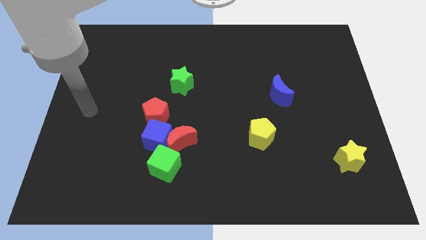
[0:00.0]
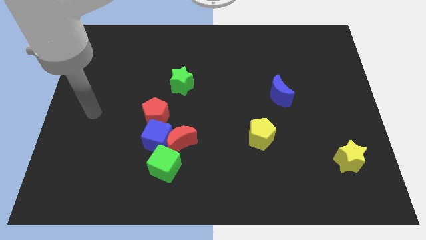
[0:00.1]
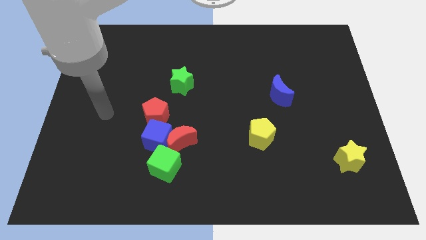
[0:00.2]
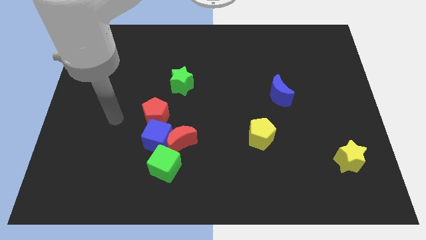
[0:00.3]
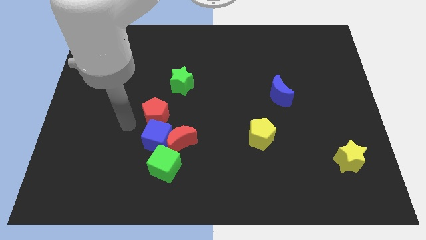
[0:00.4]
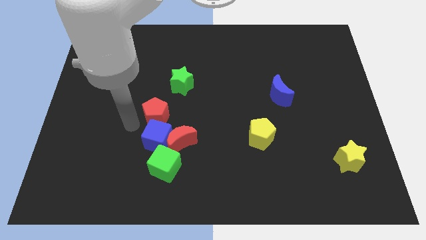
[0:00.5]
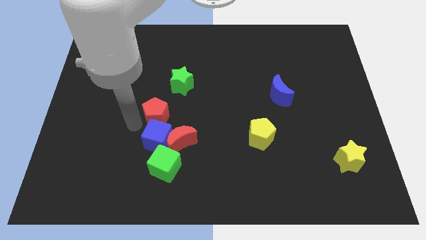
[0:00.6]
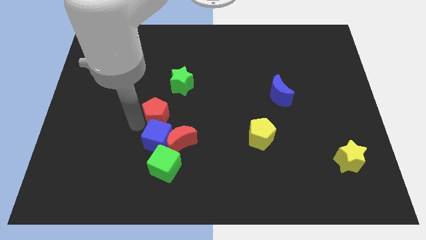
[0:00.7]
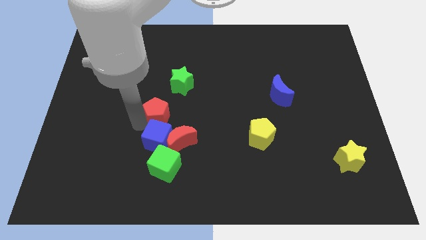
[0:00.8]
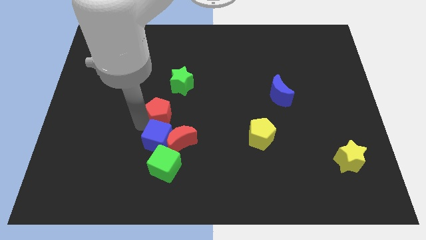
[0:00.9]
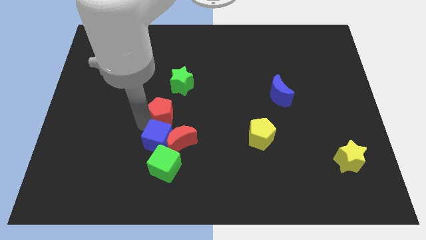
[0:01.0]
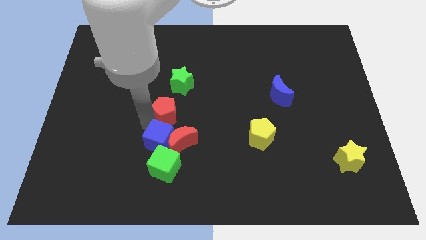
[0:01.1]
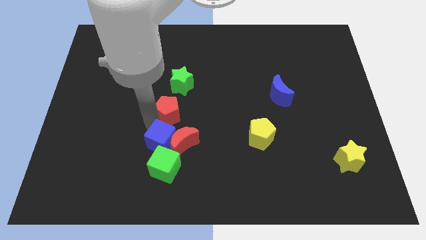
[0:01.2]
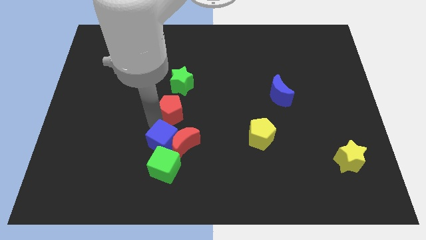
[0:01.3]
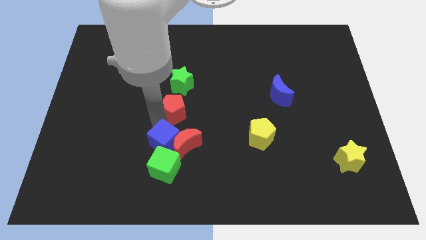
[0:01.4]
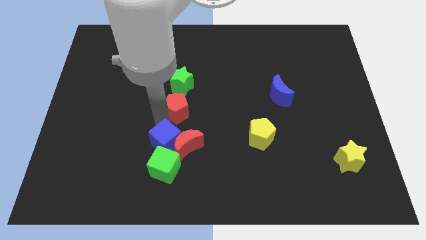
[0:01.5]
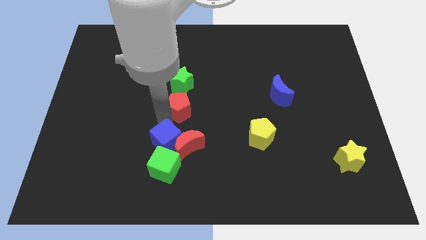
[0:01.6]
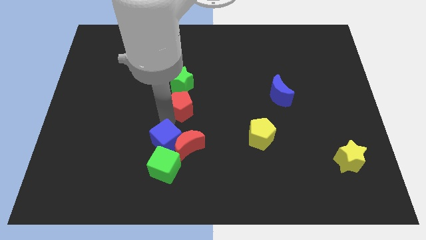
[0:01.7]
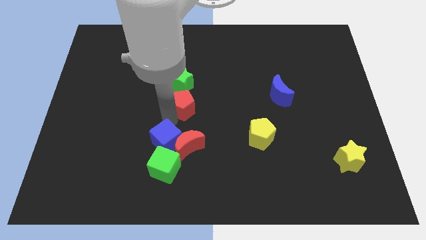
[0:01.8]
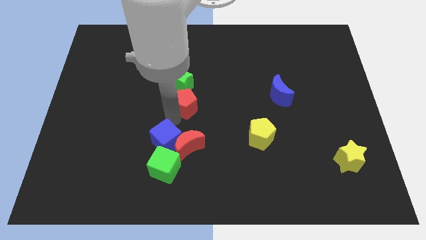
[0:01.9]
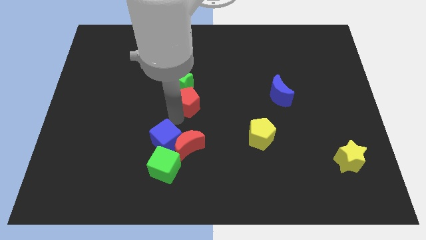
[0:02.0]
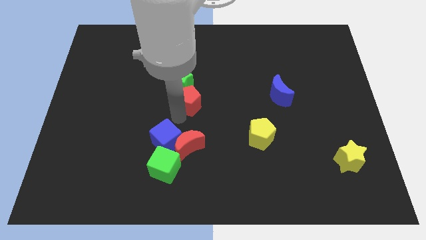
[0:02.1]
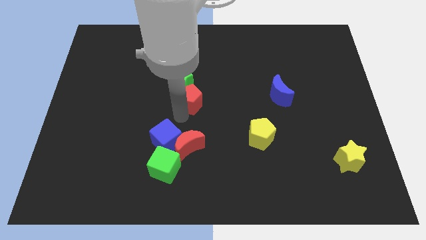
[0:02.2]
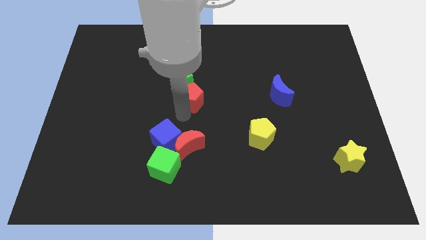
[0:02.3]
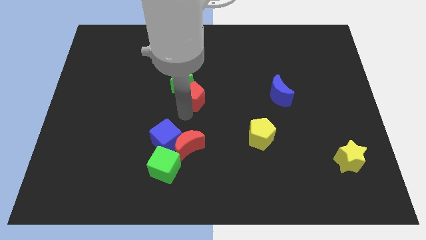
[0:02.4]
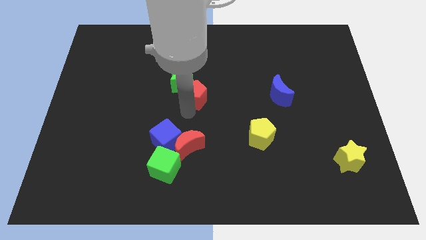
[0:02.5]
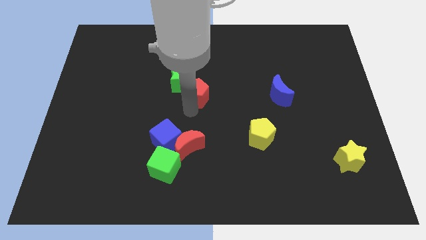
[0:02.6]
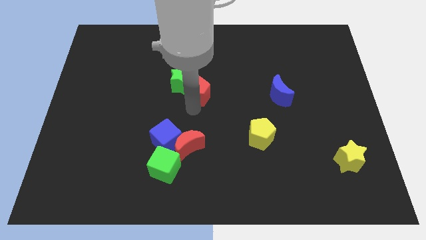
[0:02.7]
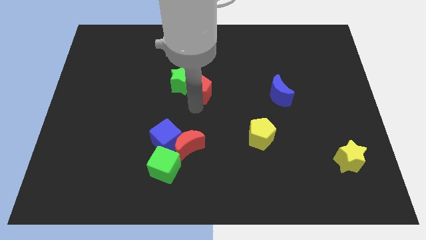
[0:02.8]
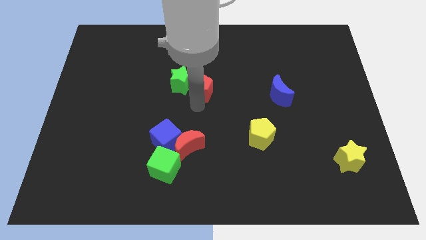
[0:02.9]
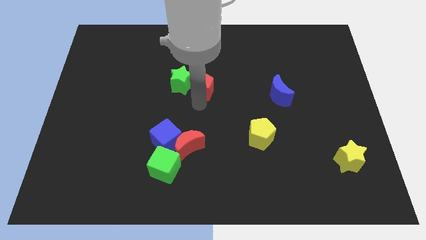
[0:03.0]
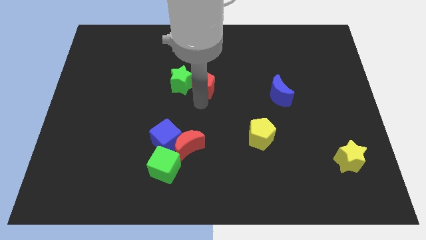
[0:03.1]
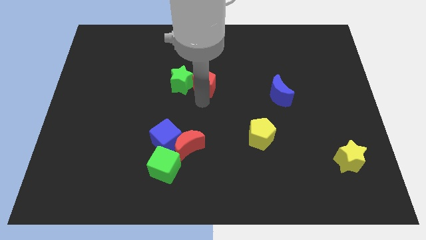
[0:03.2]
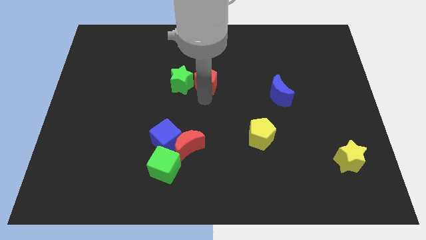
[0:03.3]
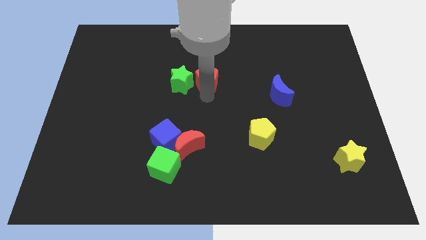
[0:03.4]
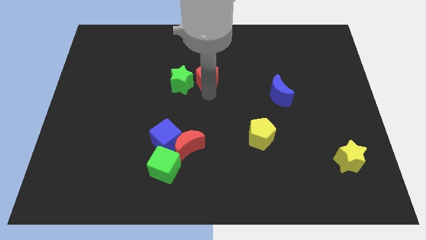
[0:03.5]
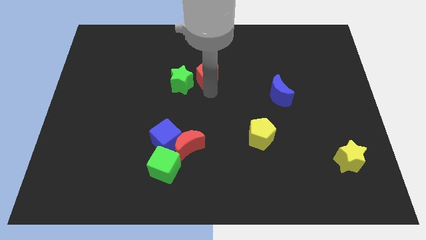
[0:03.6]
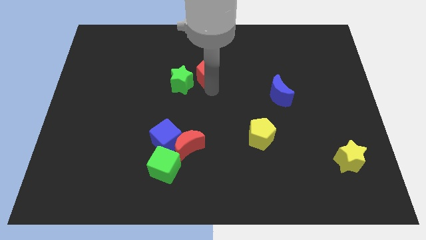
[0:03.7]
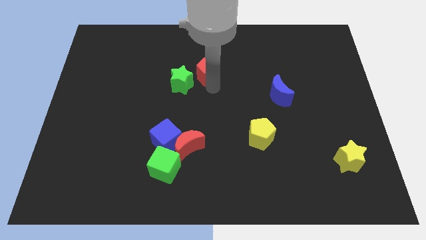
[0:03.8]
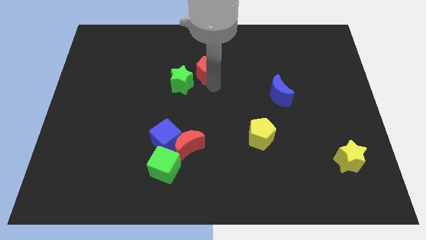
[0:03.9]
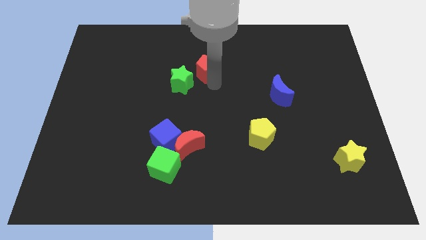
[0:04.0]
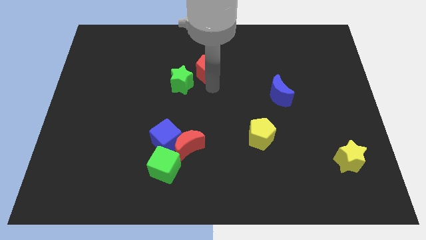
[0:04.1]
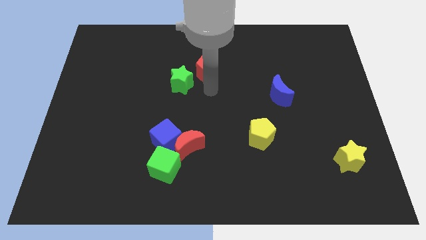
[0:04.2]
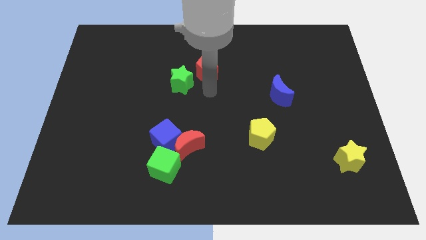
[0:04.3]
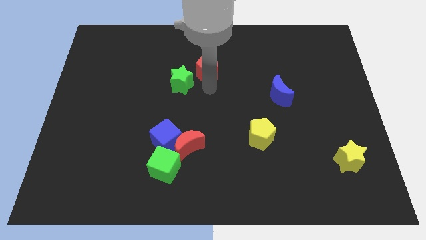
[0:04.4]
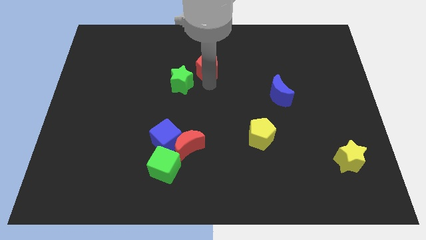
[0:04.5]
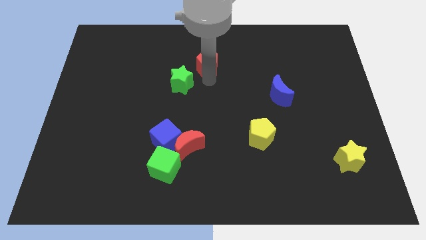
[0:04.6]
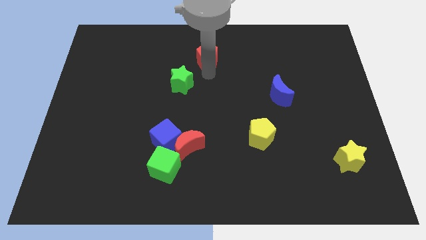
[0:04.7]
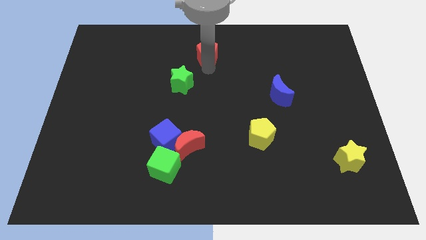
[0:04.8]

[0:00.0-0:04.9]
slide the red pentagon to the top

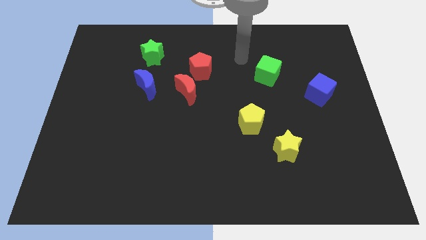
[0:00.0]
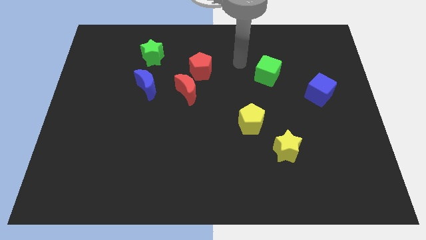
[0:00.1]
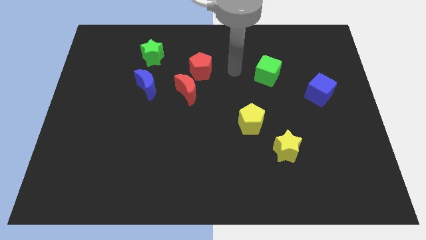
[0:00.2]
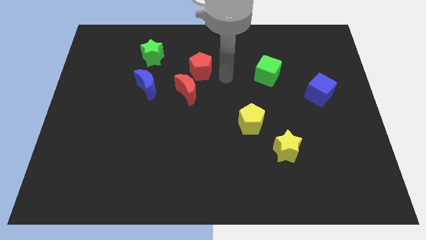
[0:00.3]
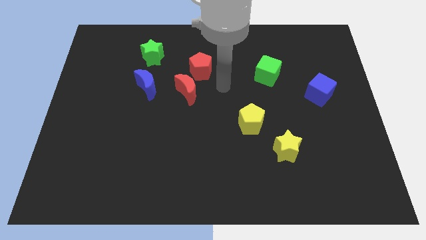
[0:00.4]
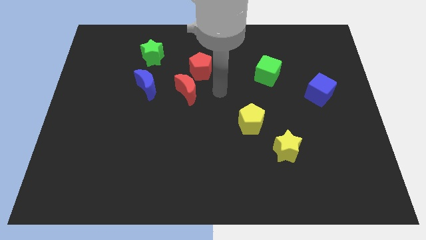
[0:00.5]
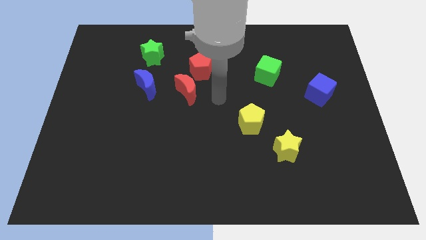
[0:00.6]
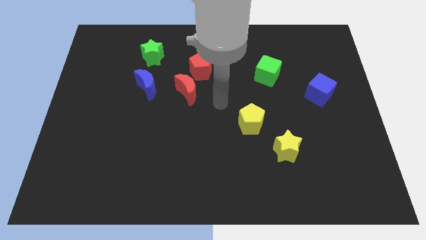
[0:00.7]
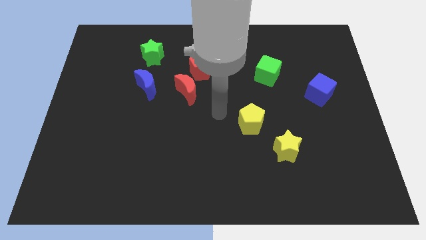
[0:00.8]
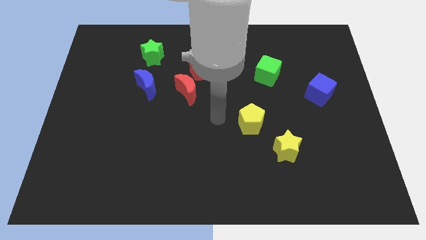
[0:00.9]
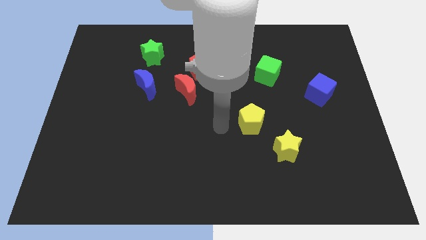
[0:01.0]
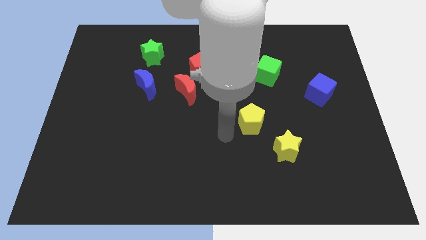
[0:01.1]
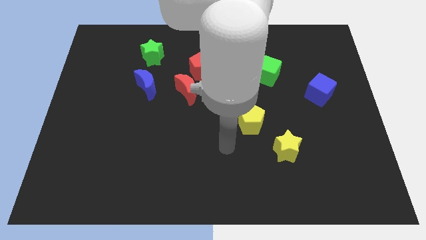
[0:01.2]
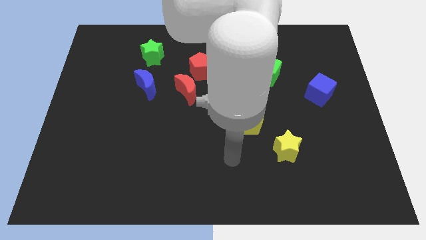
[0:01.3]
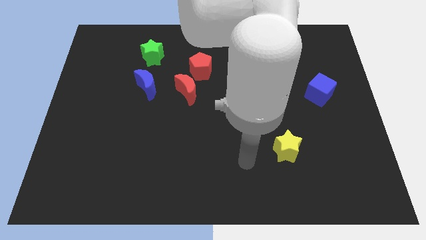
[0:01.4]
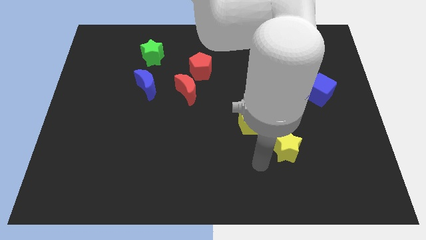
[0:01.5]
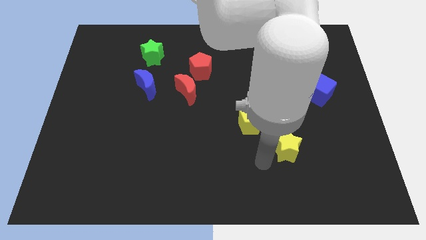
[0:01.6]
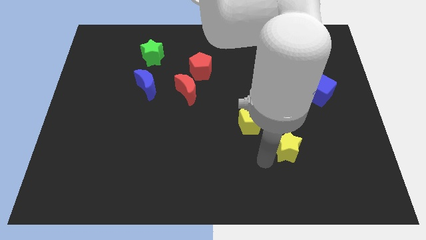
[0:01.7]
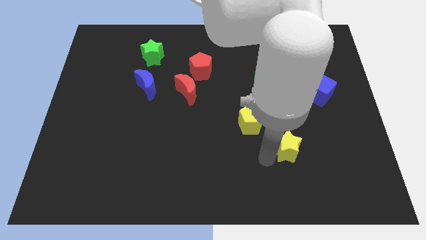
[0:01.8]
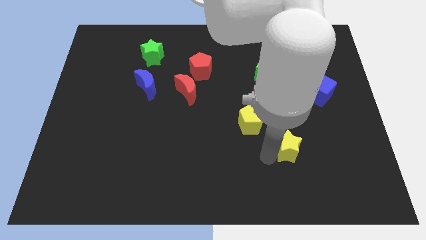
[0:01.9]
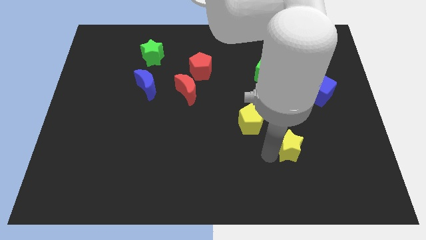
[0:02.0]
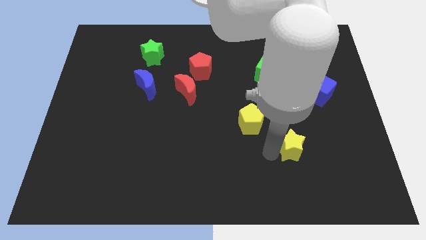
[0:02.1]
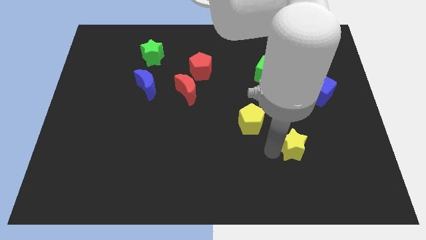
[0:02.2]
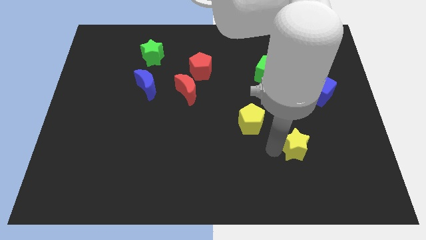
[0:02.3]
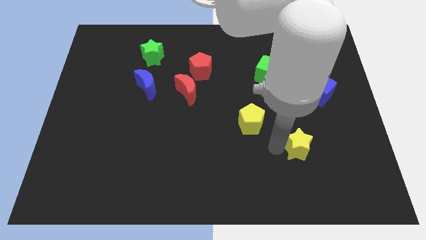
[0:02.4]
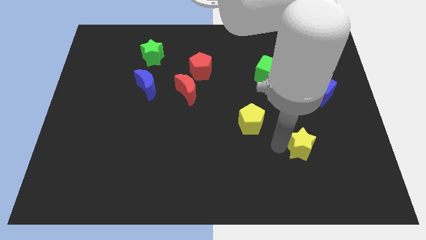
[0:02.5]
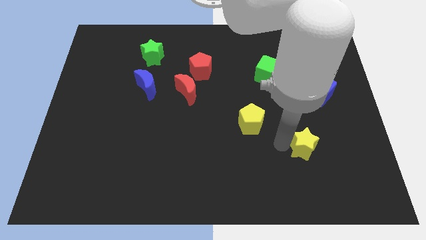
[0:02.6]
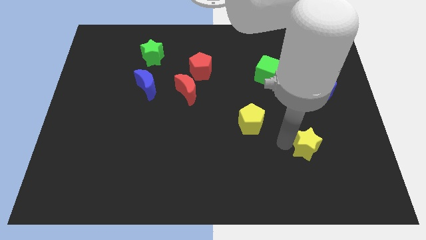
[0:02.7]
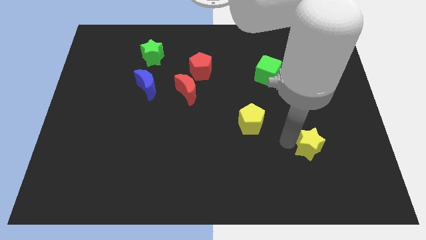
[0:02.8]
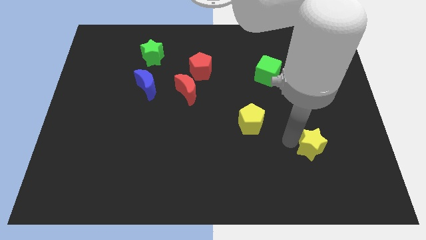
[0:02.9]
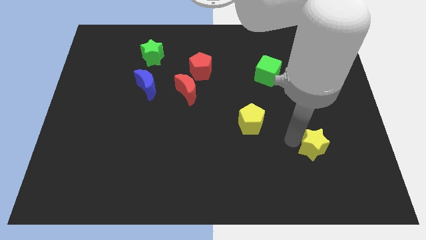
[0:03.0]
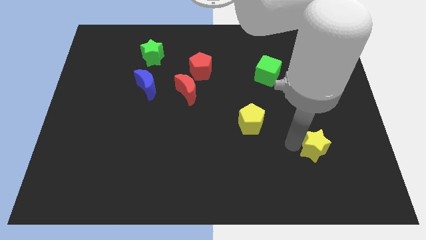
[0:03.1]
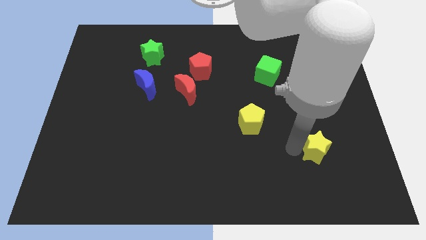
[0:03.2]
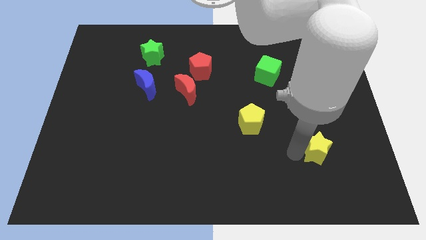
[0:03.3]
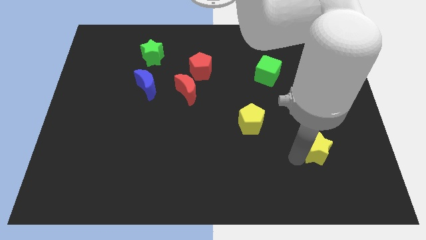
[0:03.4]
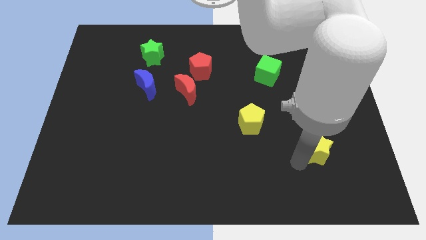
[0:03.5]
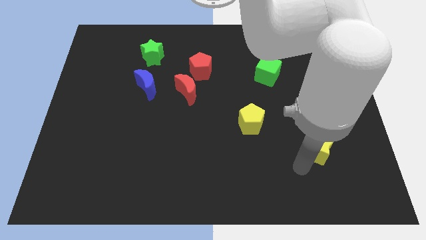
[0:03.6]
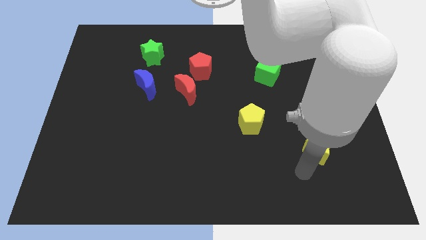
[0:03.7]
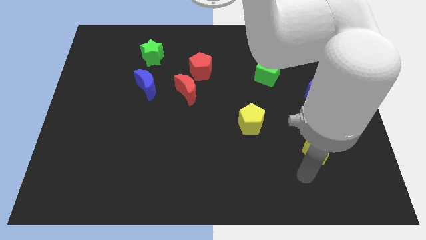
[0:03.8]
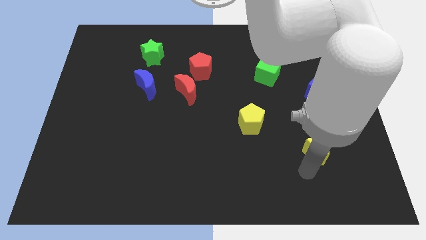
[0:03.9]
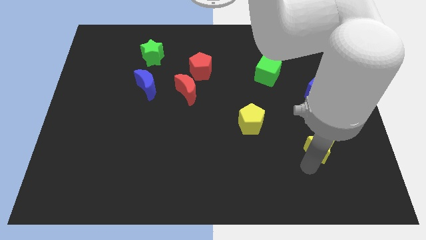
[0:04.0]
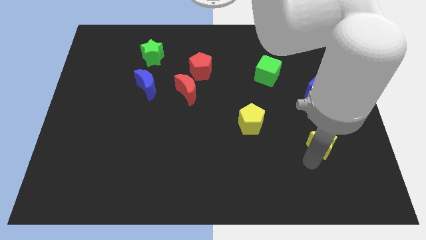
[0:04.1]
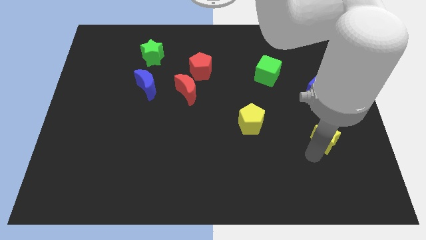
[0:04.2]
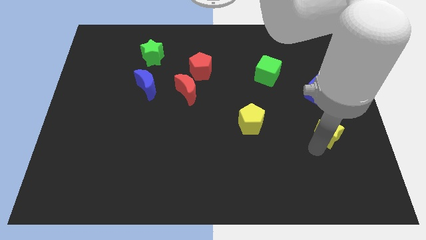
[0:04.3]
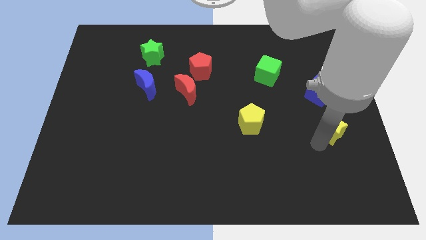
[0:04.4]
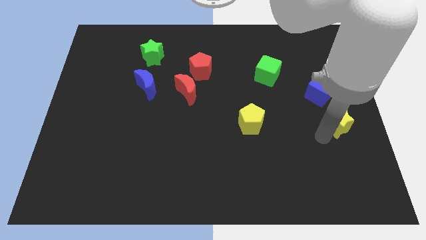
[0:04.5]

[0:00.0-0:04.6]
push the yellow star to the center right
